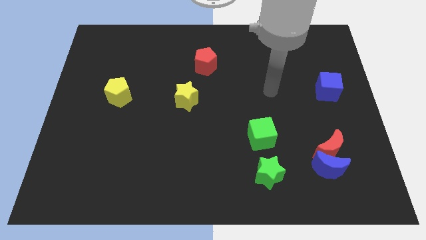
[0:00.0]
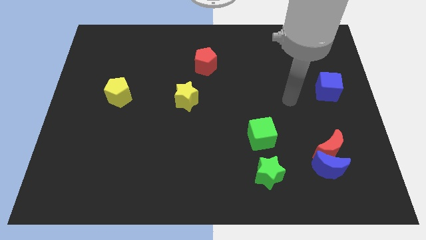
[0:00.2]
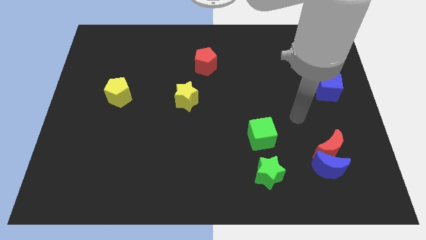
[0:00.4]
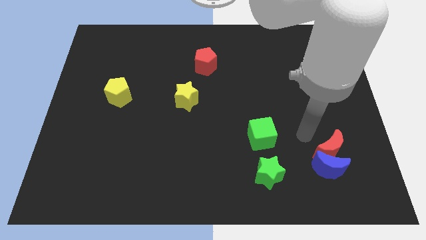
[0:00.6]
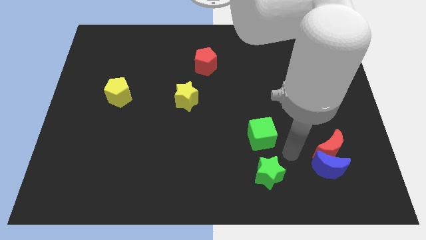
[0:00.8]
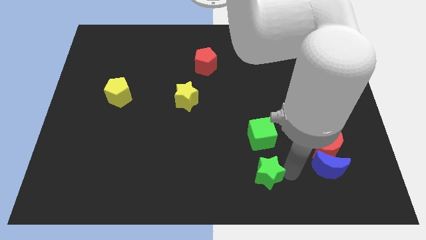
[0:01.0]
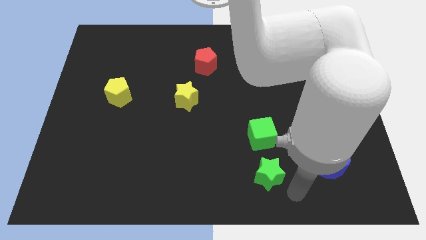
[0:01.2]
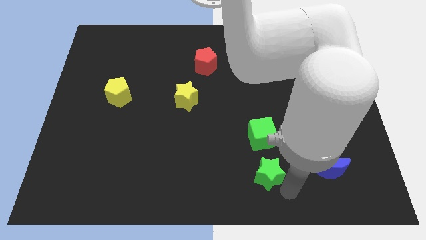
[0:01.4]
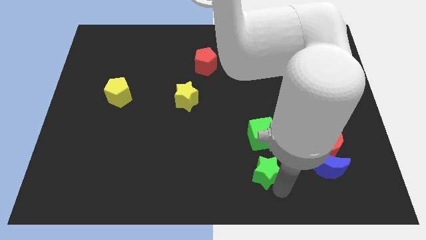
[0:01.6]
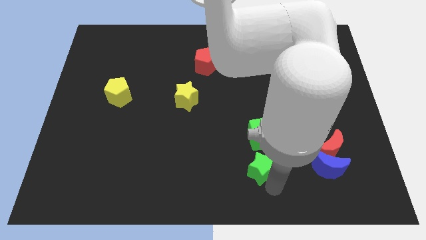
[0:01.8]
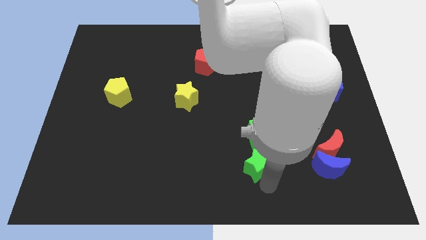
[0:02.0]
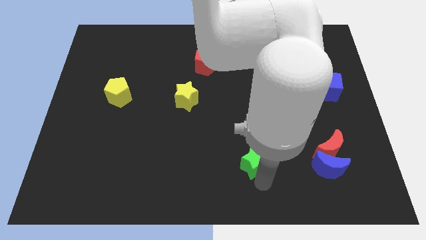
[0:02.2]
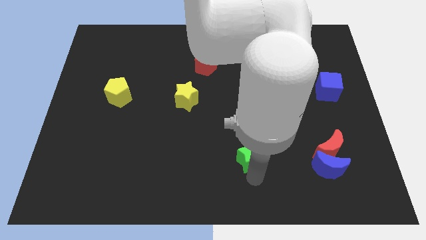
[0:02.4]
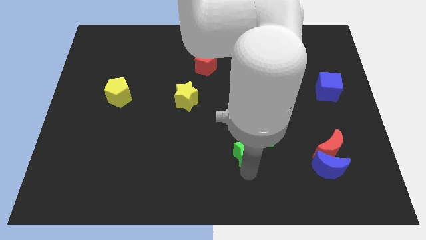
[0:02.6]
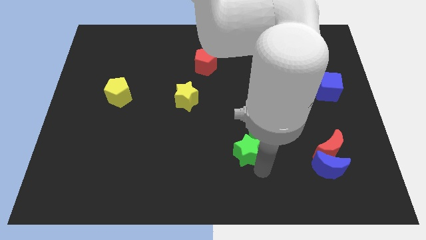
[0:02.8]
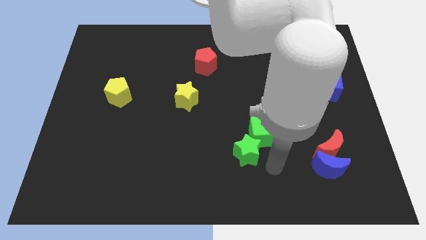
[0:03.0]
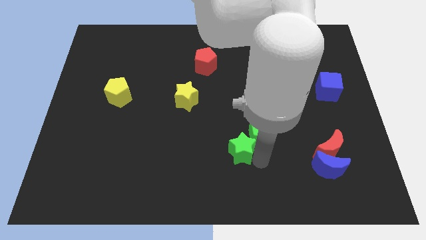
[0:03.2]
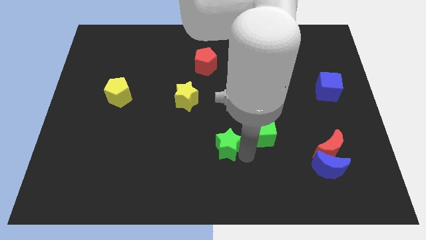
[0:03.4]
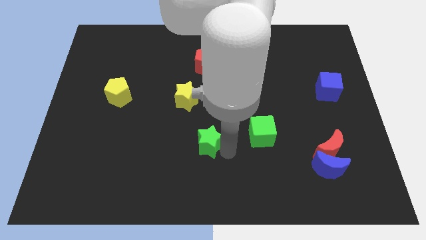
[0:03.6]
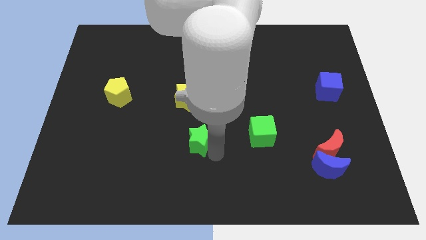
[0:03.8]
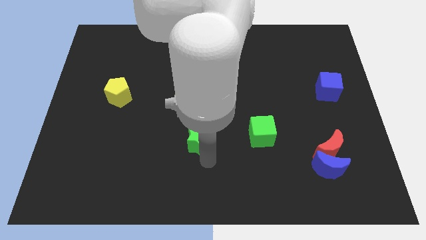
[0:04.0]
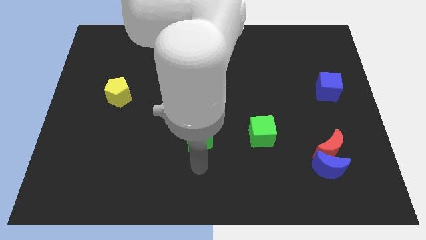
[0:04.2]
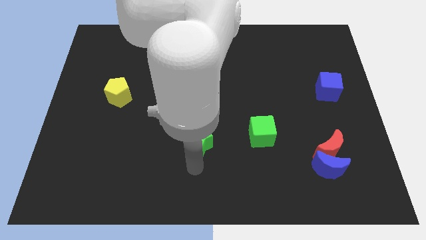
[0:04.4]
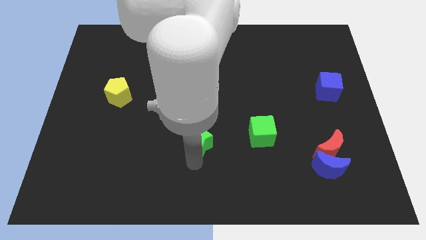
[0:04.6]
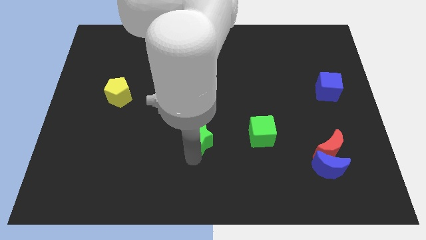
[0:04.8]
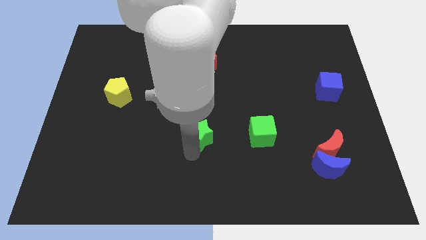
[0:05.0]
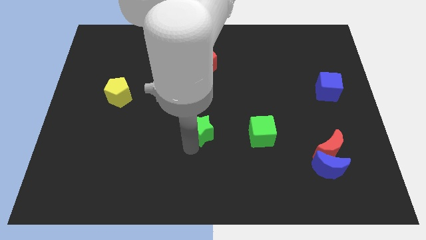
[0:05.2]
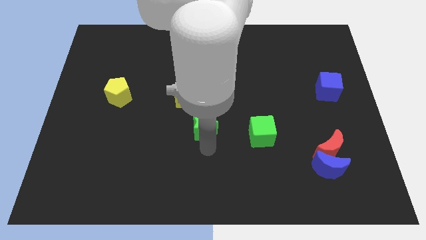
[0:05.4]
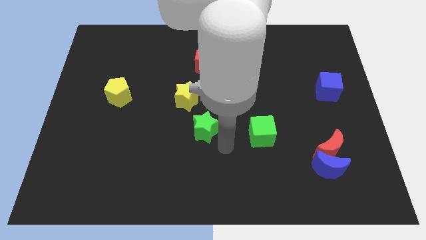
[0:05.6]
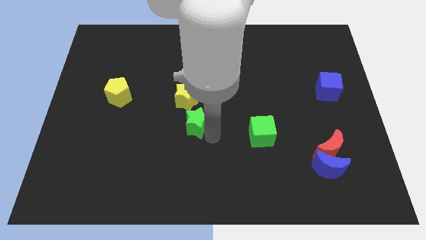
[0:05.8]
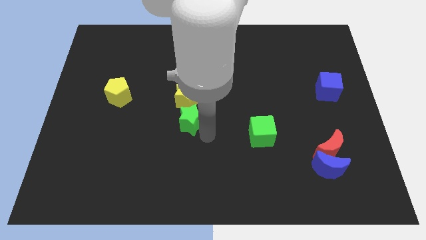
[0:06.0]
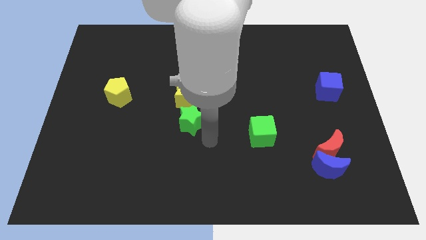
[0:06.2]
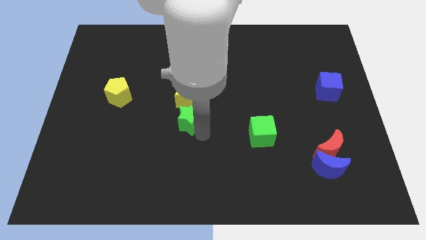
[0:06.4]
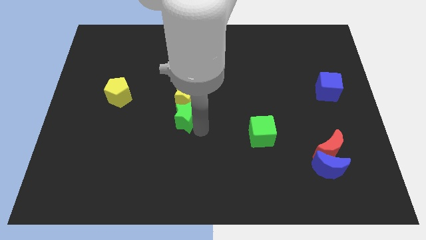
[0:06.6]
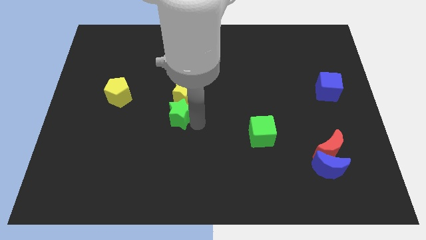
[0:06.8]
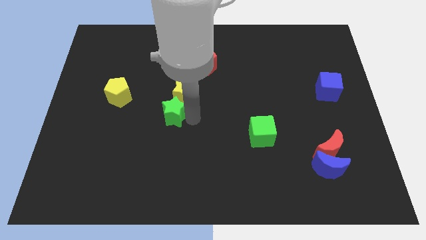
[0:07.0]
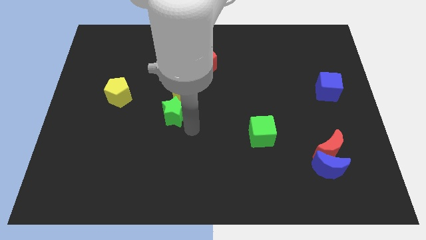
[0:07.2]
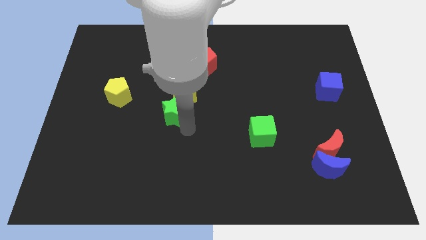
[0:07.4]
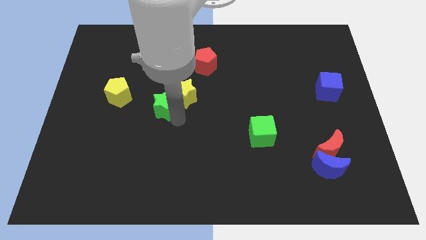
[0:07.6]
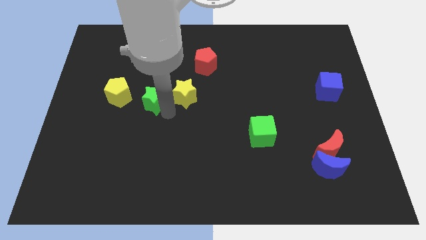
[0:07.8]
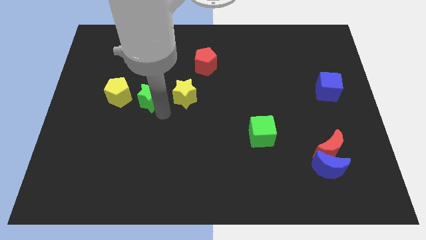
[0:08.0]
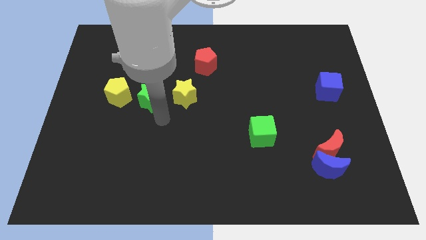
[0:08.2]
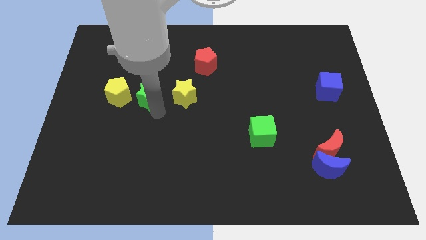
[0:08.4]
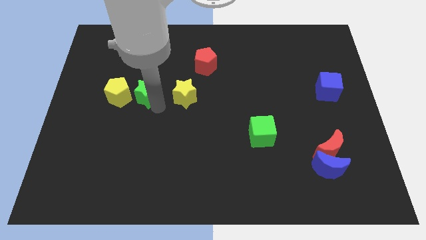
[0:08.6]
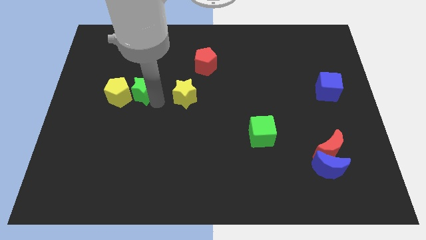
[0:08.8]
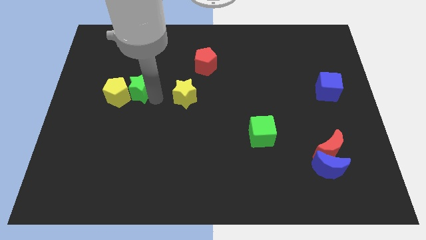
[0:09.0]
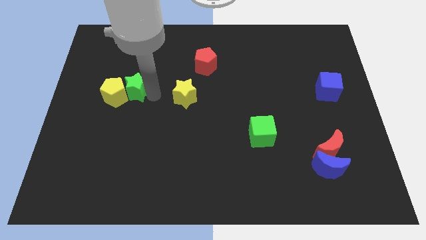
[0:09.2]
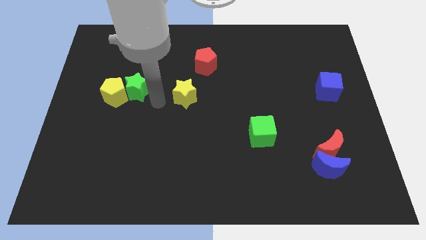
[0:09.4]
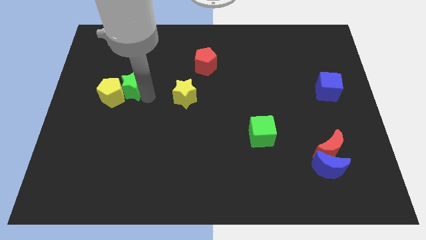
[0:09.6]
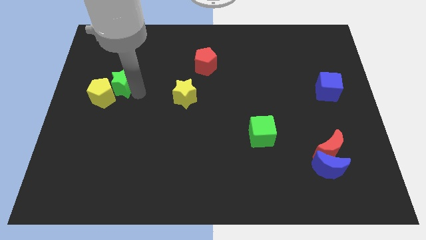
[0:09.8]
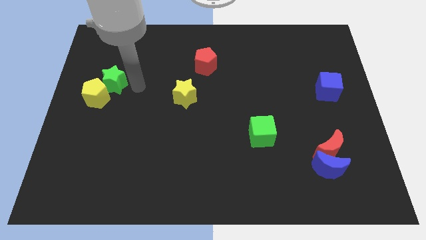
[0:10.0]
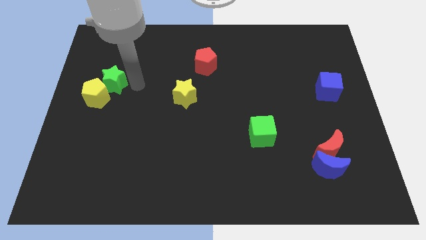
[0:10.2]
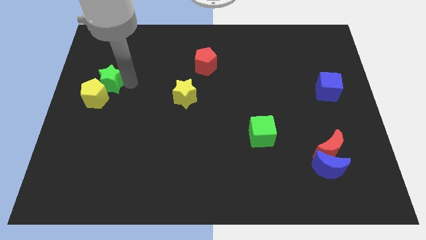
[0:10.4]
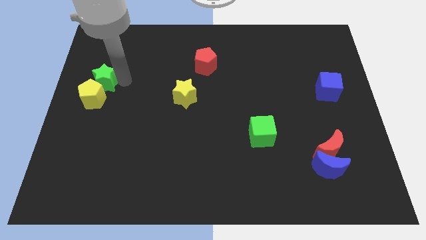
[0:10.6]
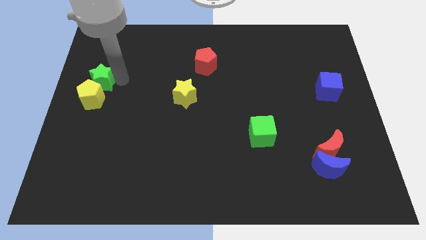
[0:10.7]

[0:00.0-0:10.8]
slide the green star to the top left side of the yellow pentagon

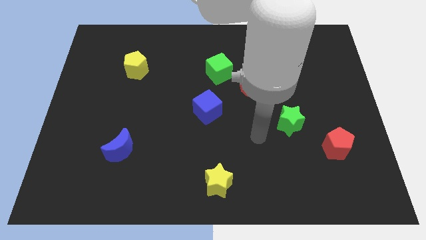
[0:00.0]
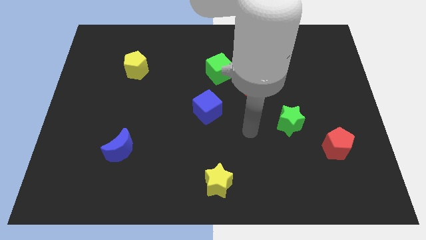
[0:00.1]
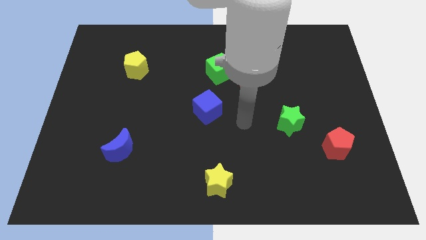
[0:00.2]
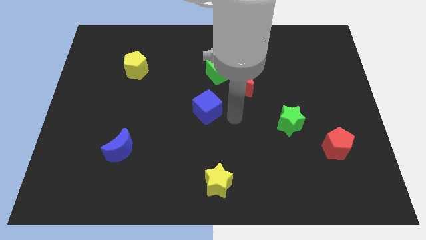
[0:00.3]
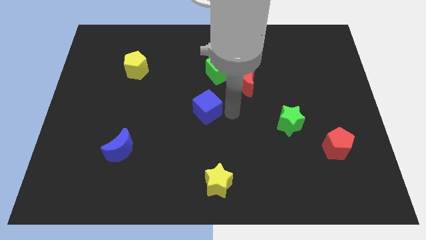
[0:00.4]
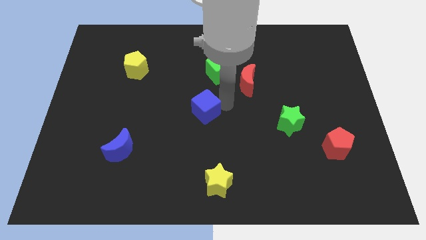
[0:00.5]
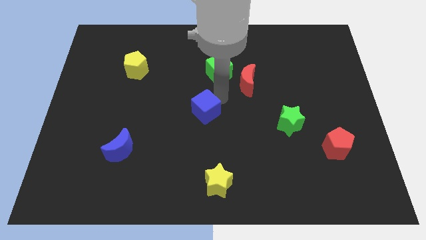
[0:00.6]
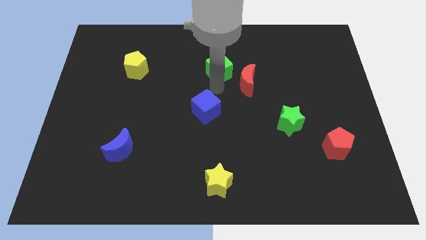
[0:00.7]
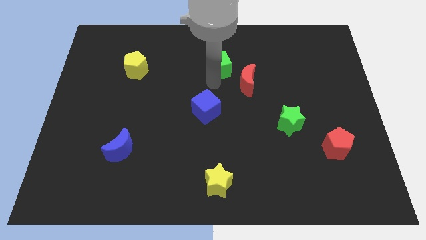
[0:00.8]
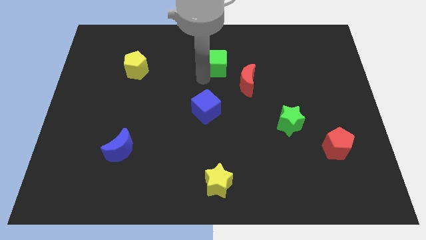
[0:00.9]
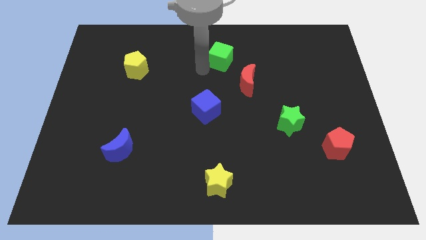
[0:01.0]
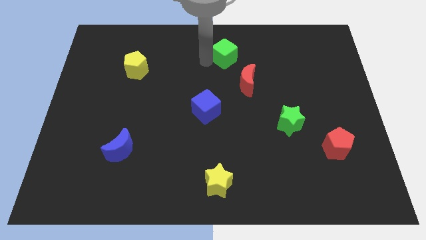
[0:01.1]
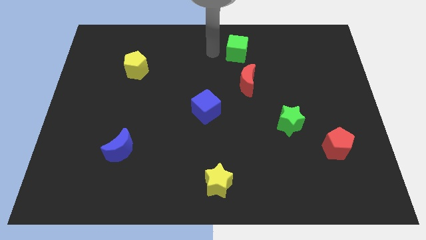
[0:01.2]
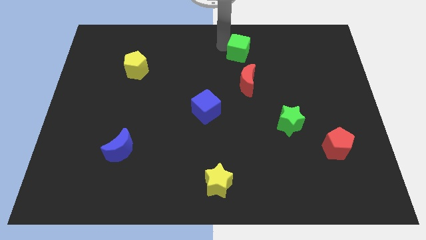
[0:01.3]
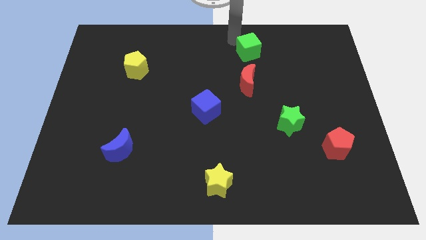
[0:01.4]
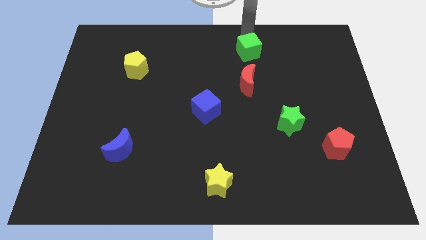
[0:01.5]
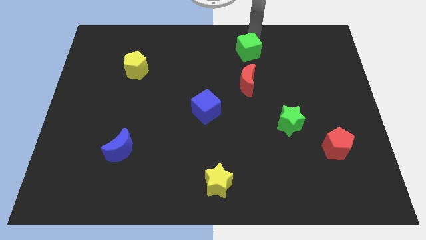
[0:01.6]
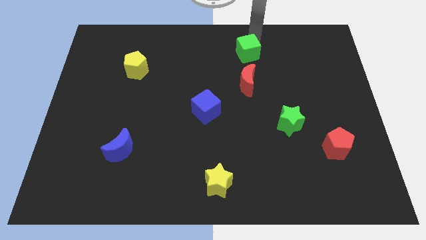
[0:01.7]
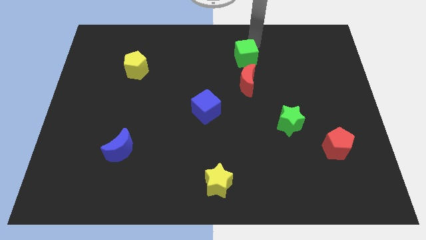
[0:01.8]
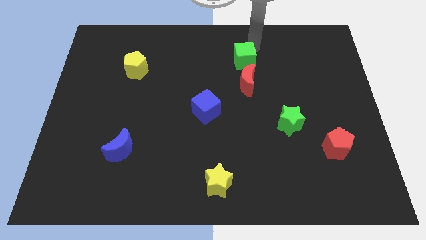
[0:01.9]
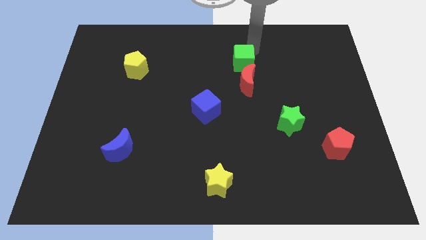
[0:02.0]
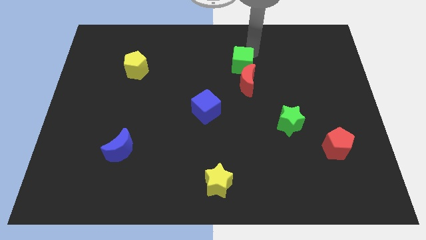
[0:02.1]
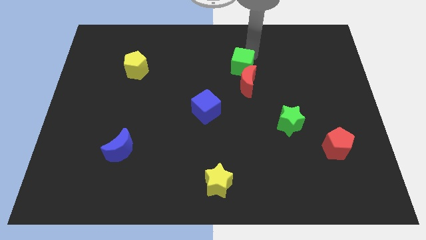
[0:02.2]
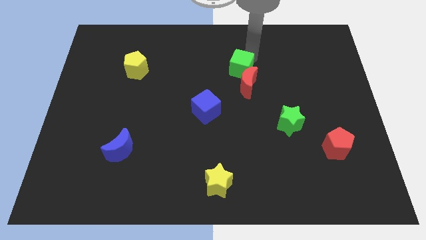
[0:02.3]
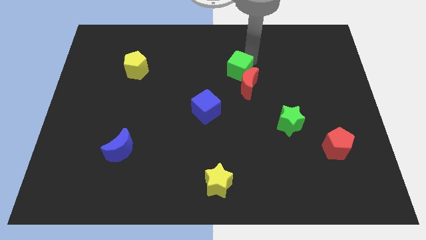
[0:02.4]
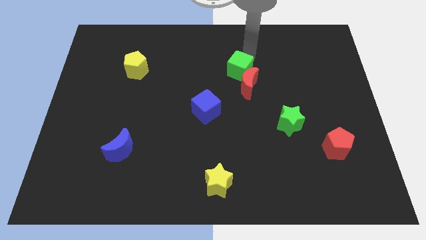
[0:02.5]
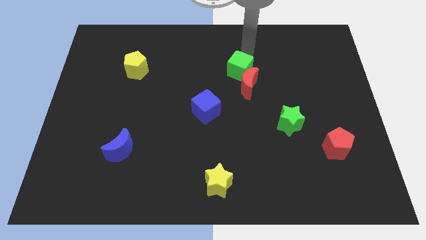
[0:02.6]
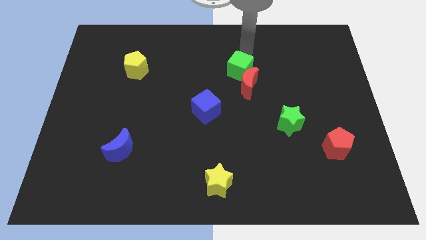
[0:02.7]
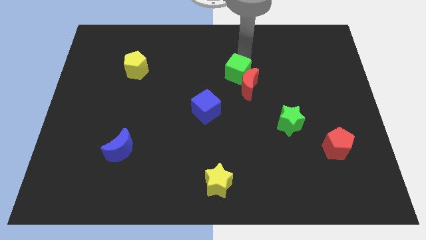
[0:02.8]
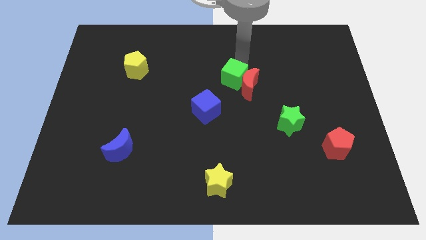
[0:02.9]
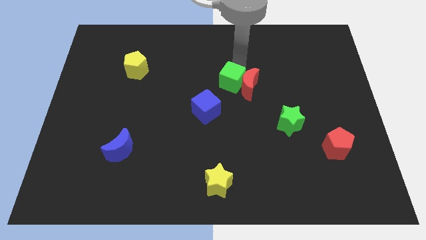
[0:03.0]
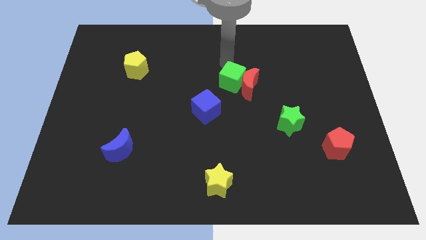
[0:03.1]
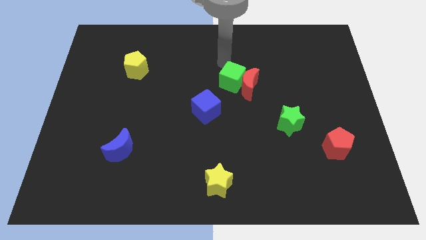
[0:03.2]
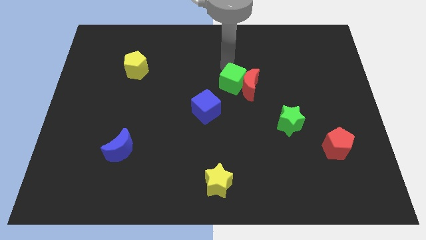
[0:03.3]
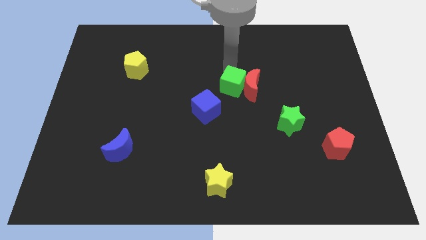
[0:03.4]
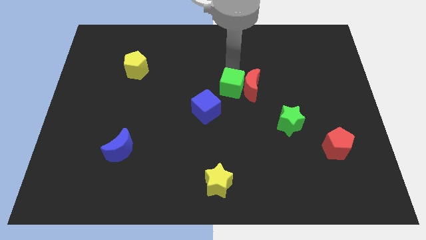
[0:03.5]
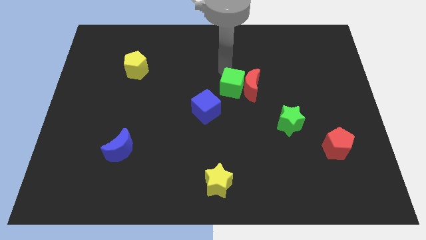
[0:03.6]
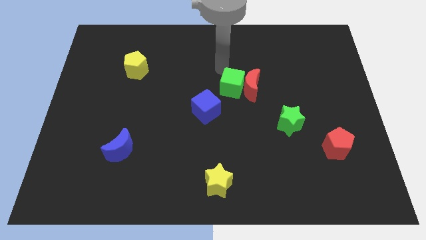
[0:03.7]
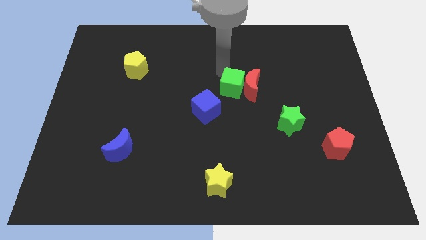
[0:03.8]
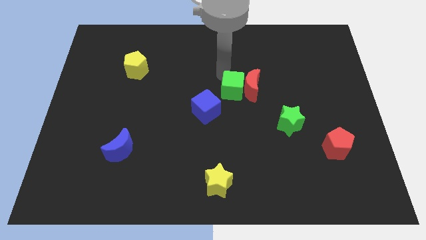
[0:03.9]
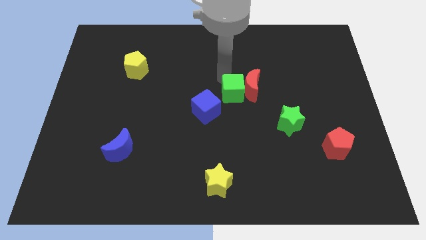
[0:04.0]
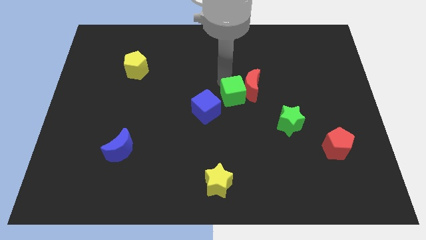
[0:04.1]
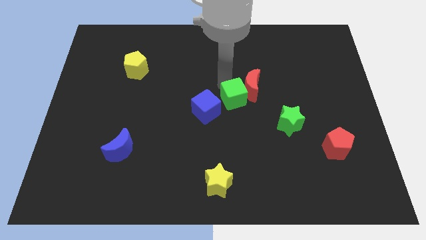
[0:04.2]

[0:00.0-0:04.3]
put the green cube to the bottom of the red moon
